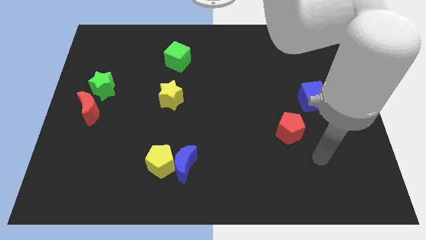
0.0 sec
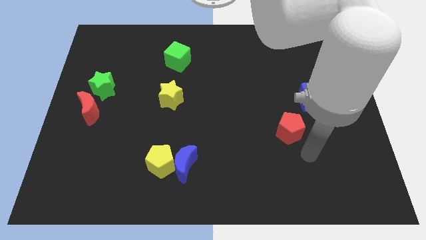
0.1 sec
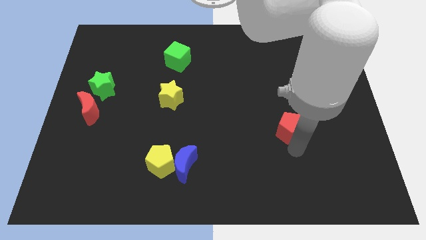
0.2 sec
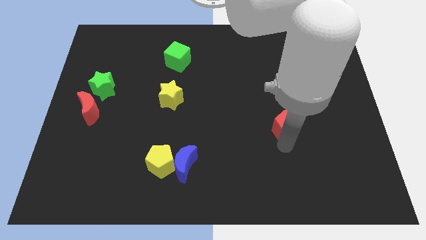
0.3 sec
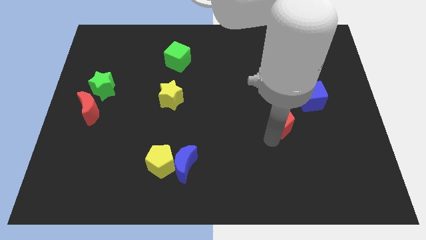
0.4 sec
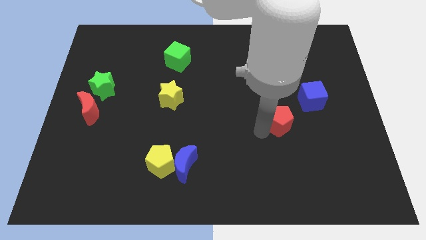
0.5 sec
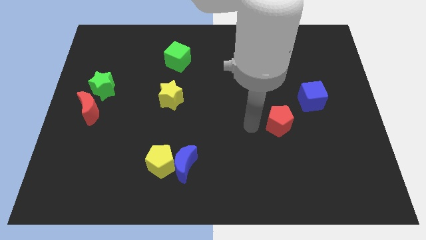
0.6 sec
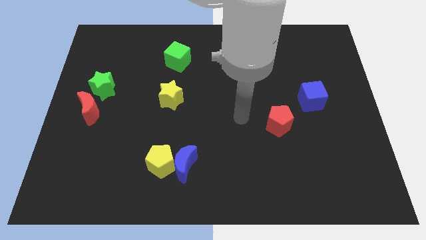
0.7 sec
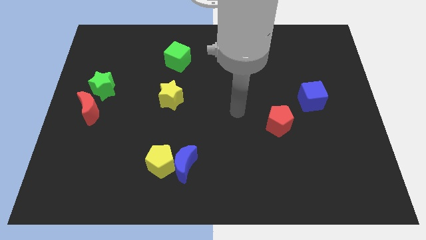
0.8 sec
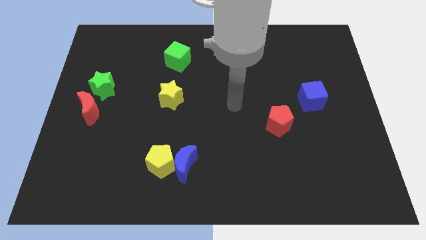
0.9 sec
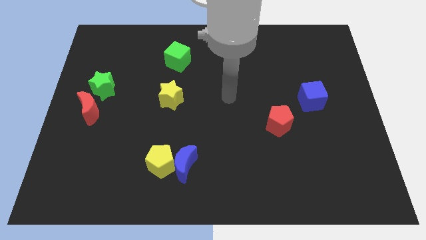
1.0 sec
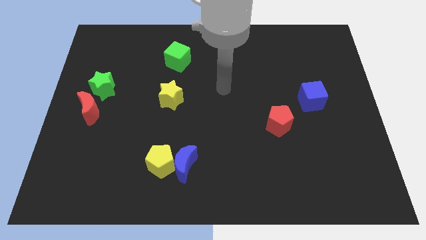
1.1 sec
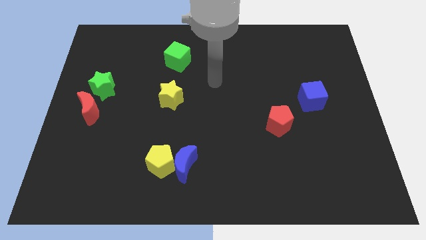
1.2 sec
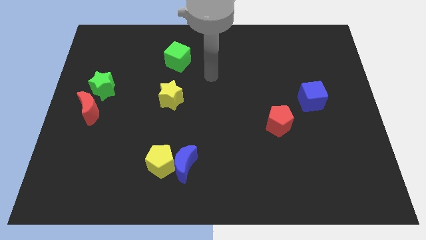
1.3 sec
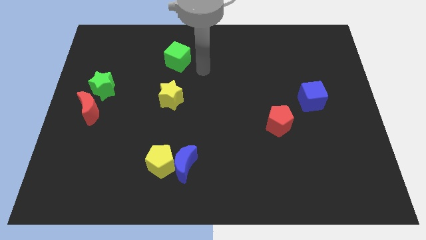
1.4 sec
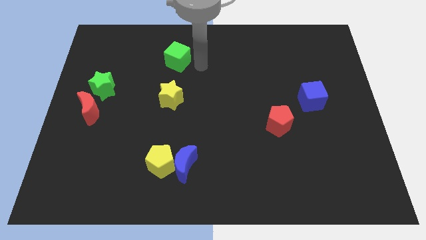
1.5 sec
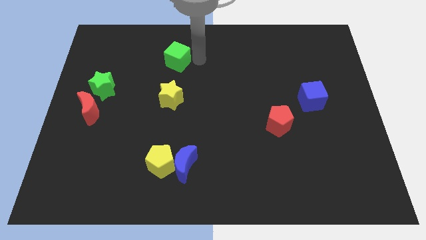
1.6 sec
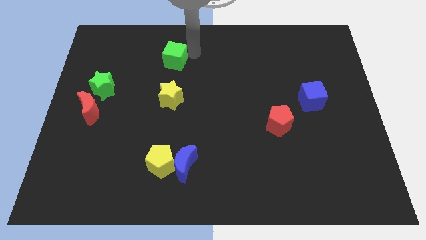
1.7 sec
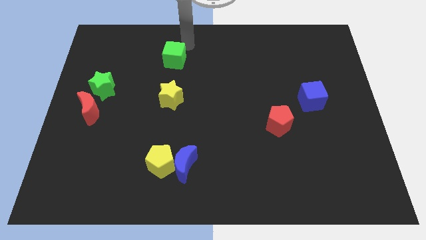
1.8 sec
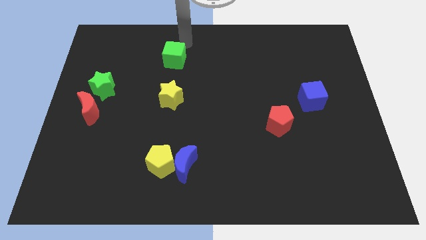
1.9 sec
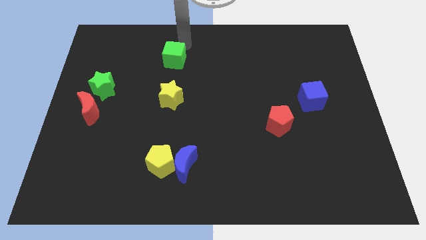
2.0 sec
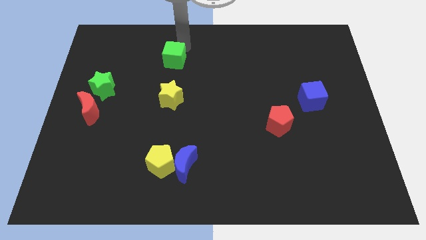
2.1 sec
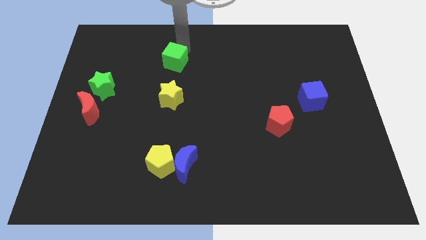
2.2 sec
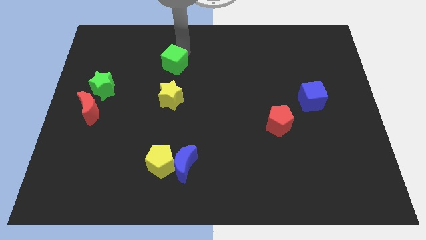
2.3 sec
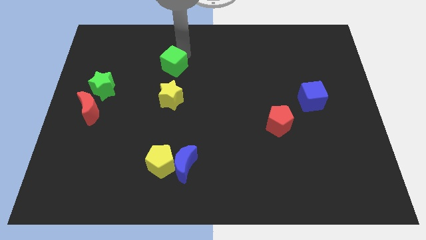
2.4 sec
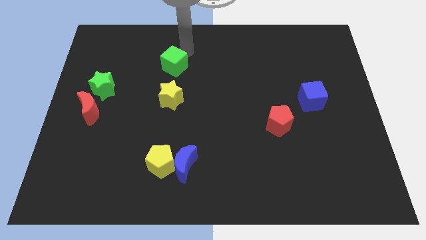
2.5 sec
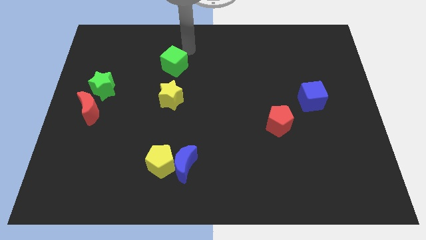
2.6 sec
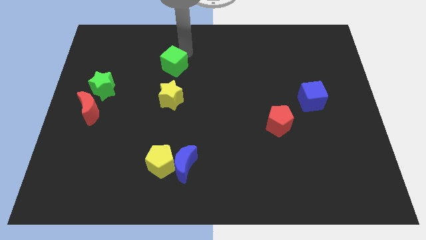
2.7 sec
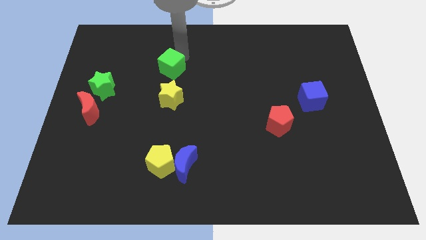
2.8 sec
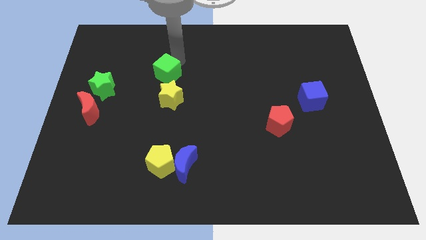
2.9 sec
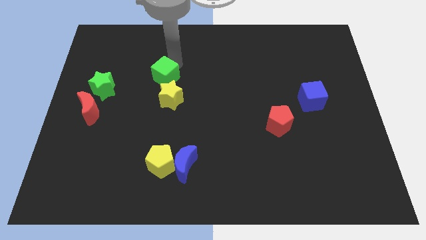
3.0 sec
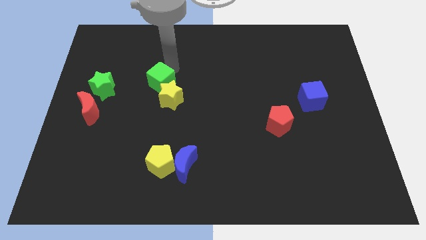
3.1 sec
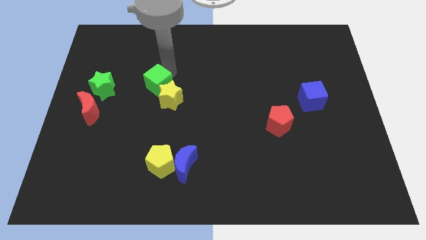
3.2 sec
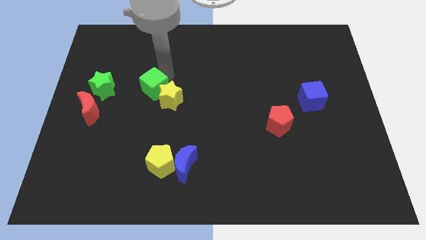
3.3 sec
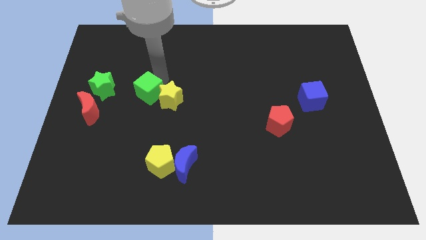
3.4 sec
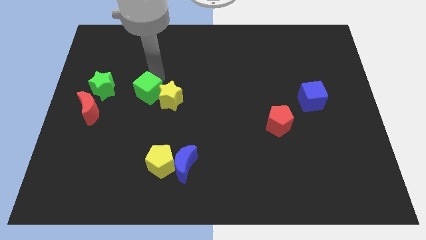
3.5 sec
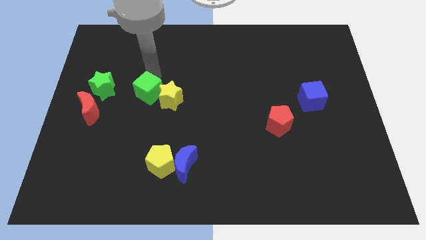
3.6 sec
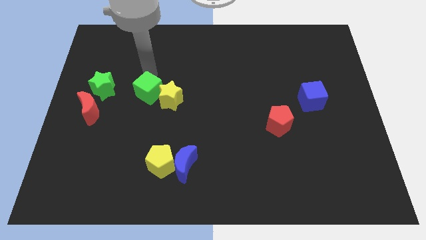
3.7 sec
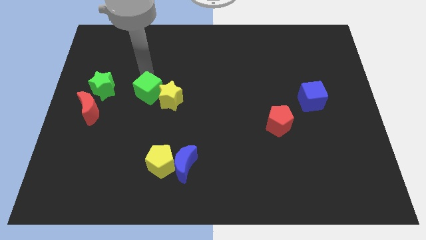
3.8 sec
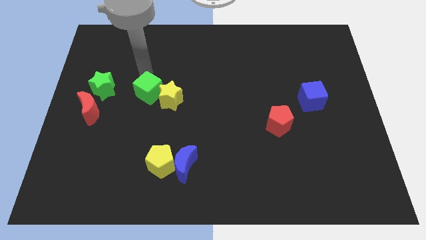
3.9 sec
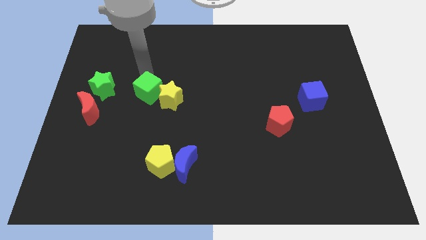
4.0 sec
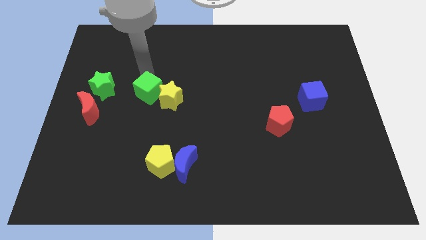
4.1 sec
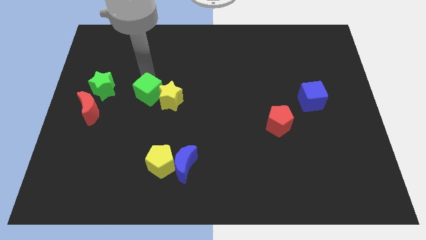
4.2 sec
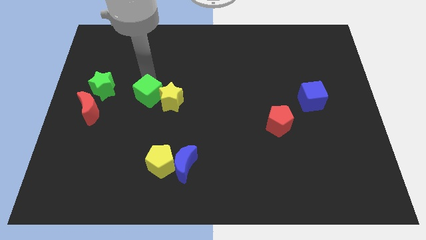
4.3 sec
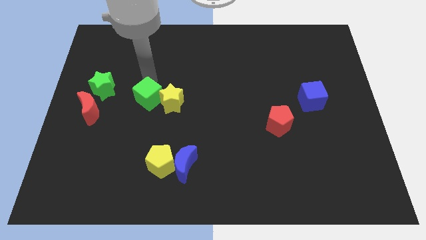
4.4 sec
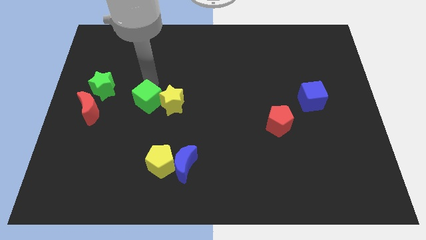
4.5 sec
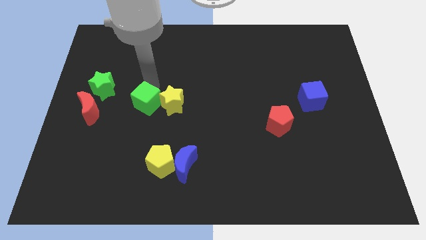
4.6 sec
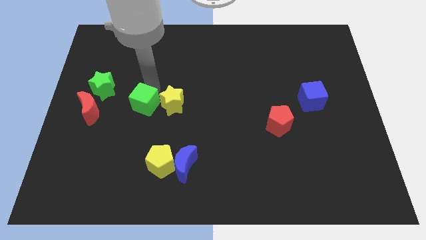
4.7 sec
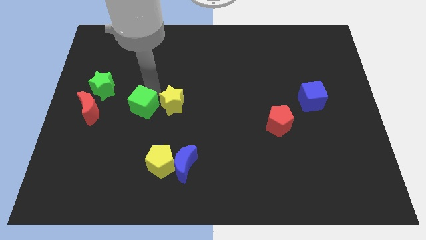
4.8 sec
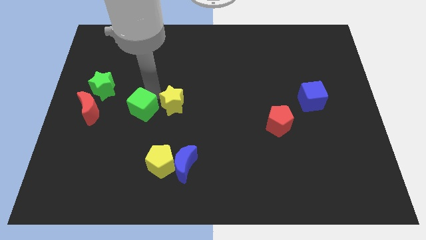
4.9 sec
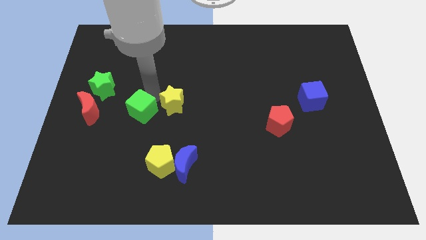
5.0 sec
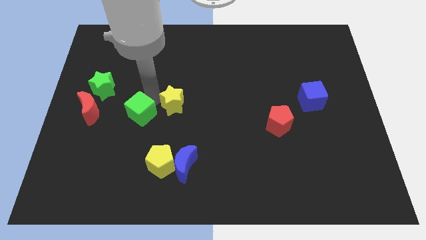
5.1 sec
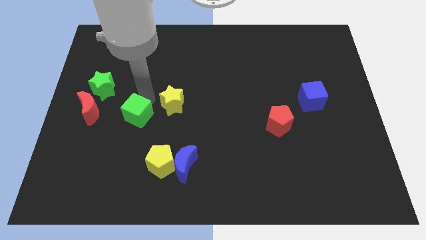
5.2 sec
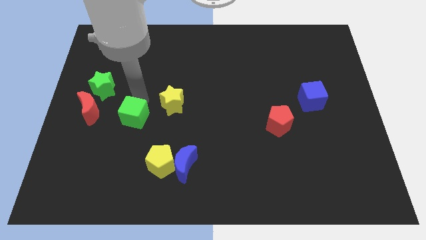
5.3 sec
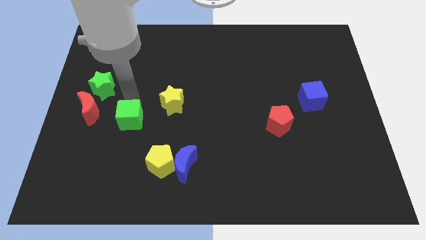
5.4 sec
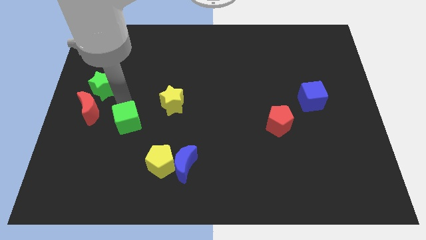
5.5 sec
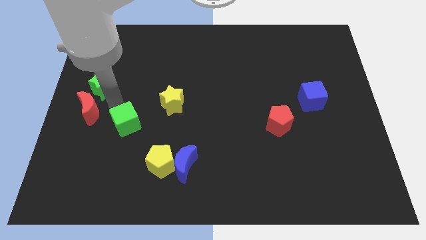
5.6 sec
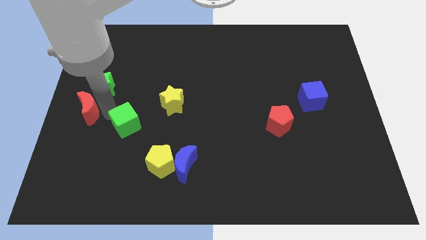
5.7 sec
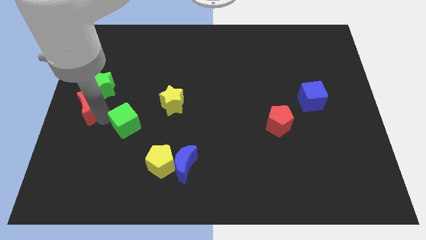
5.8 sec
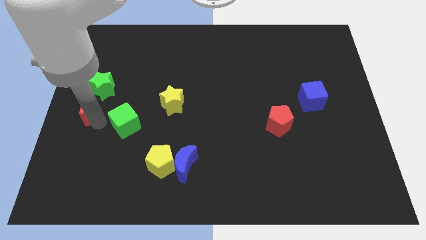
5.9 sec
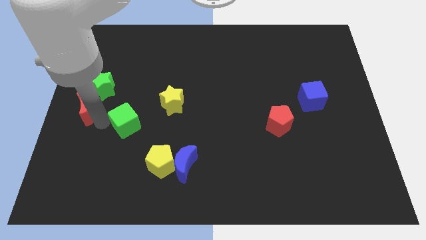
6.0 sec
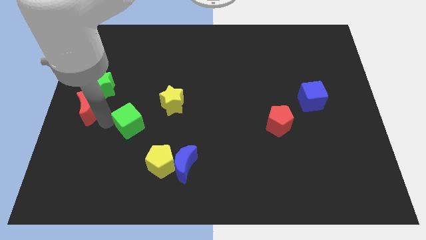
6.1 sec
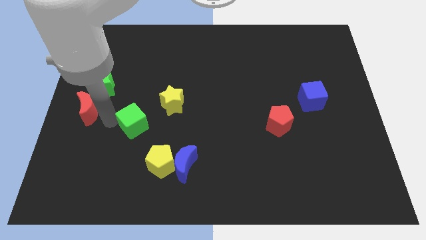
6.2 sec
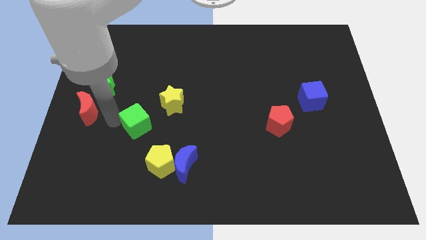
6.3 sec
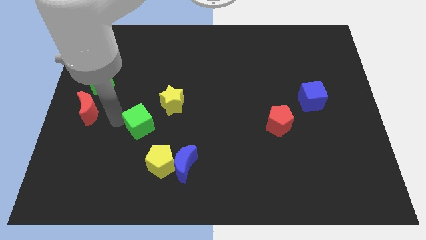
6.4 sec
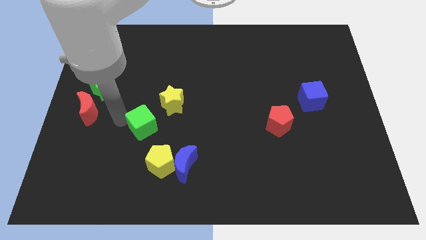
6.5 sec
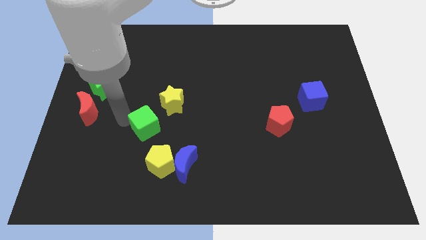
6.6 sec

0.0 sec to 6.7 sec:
move the green cube above the yellow pentagon

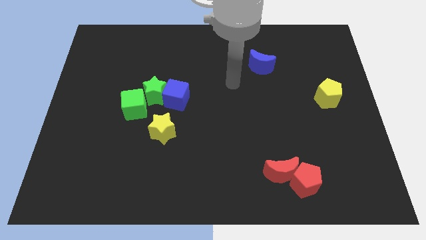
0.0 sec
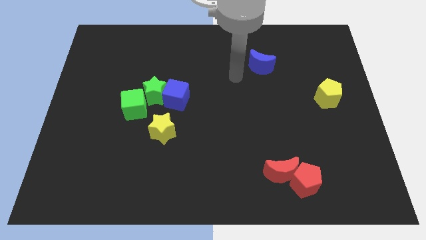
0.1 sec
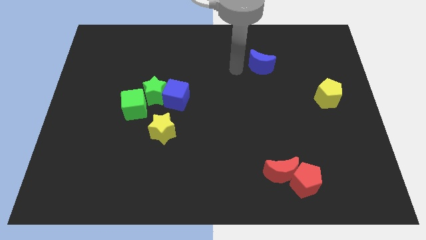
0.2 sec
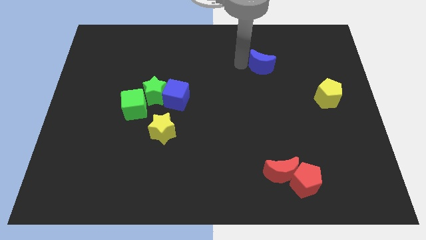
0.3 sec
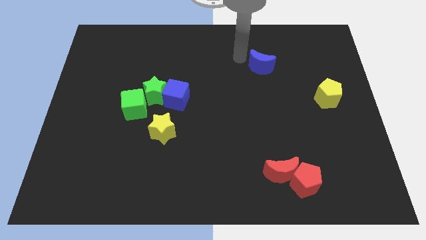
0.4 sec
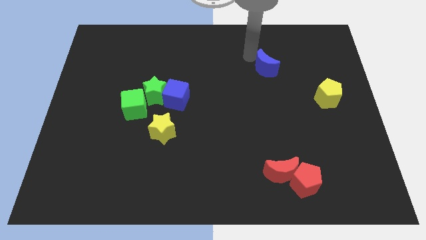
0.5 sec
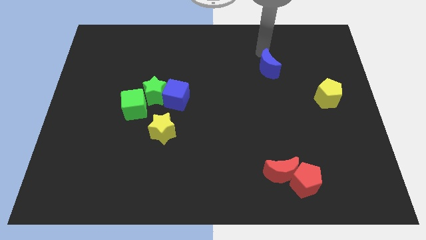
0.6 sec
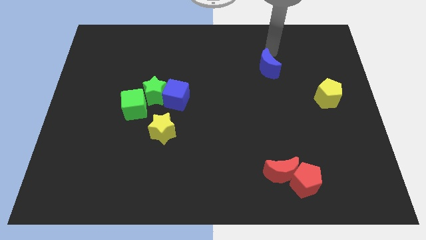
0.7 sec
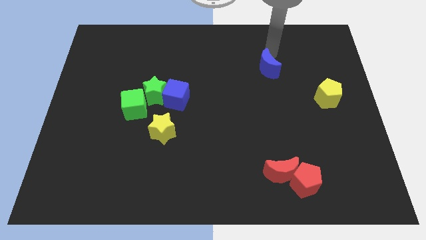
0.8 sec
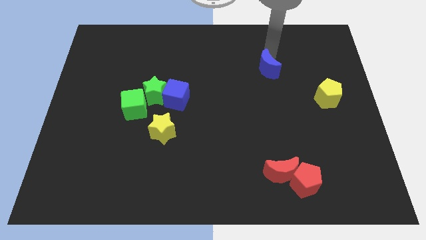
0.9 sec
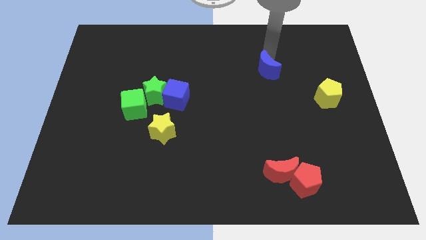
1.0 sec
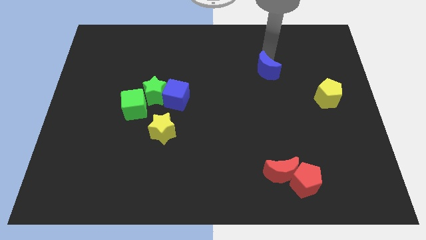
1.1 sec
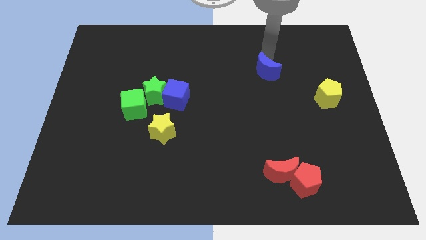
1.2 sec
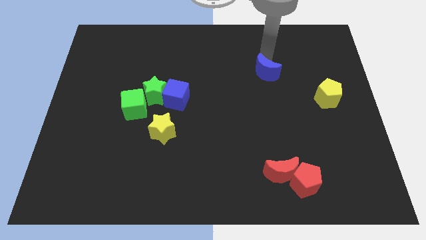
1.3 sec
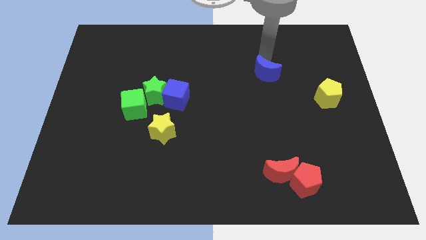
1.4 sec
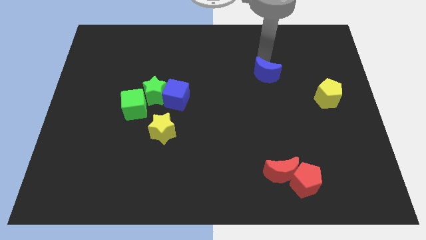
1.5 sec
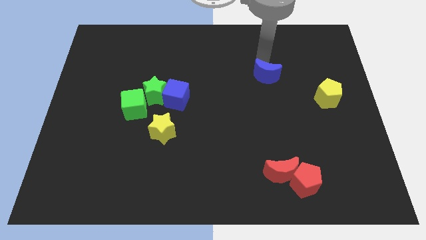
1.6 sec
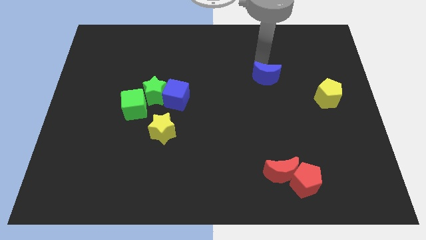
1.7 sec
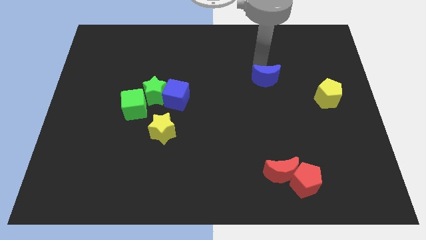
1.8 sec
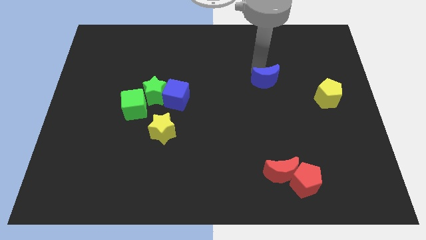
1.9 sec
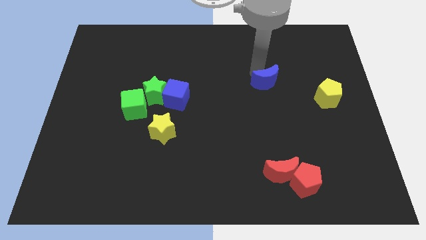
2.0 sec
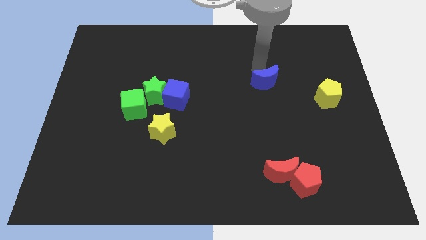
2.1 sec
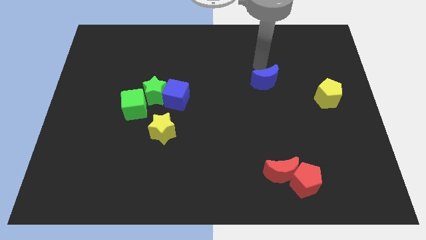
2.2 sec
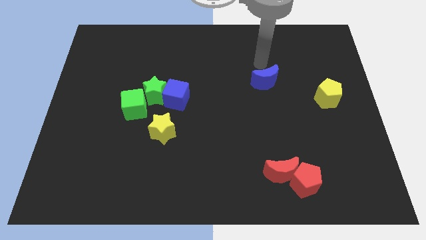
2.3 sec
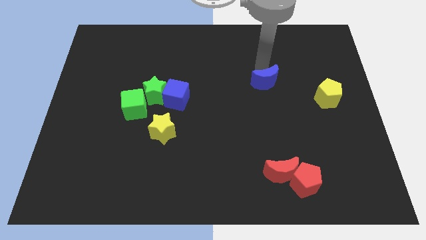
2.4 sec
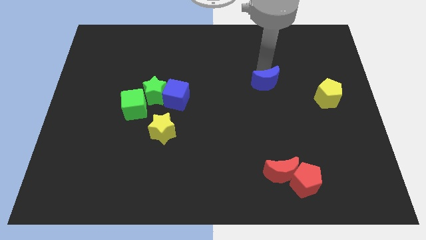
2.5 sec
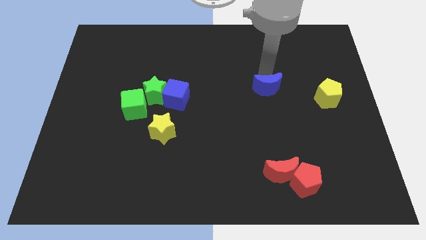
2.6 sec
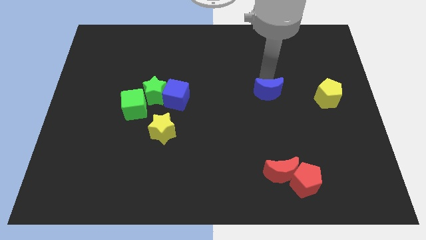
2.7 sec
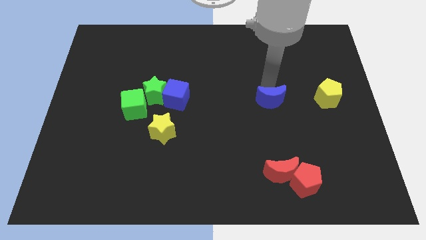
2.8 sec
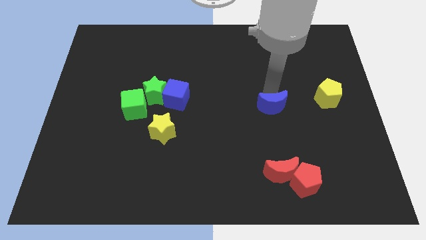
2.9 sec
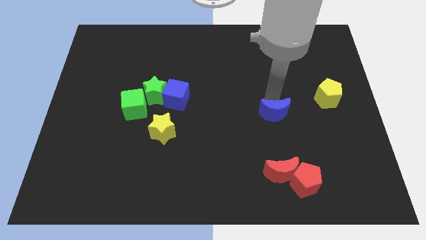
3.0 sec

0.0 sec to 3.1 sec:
move the blue moon to the top of the red moon
